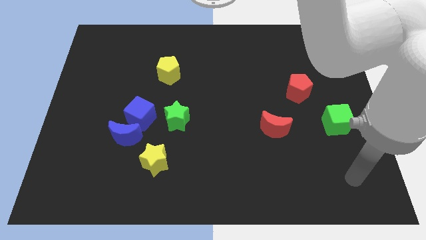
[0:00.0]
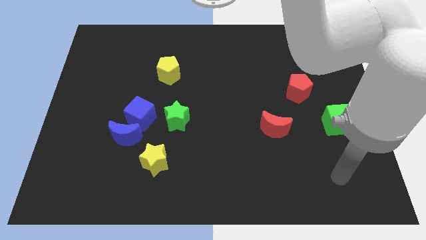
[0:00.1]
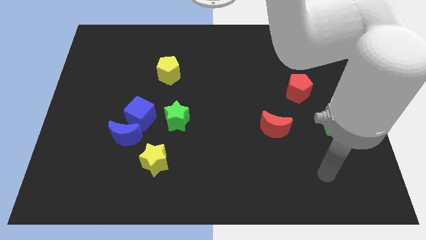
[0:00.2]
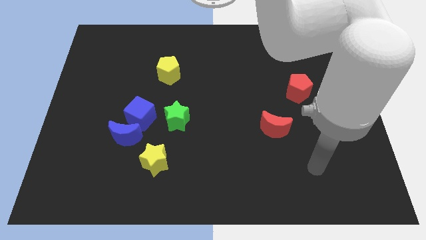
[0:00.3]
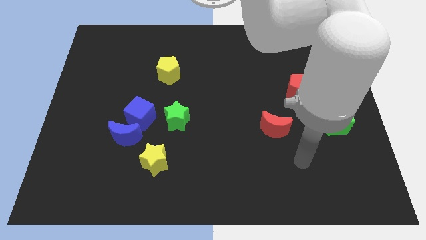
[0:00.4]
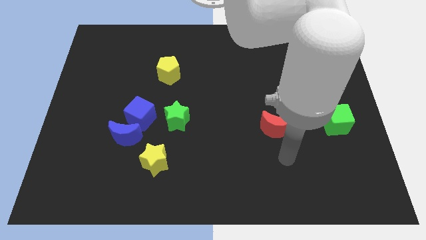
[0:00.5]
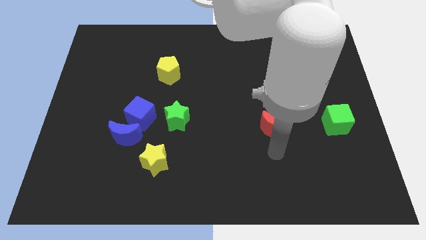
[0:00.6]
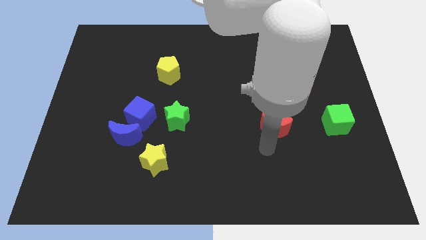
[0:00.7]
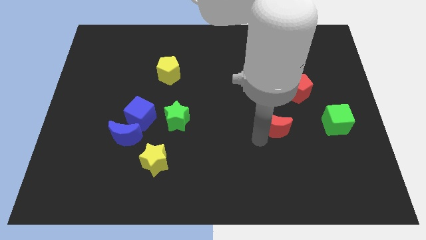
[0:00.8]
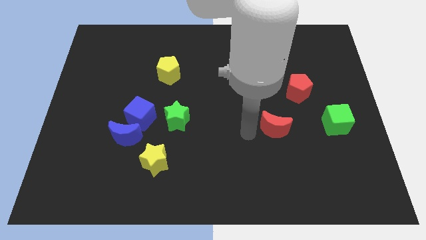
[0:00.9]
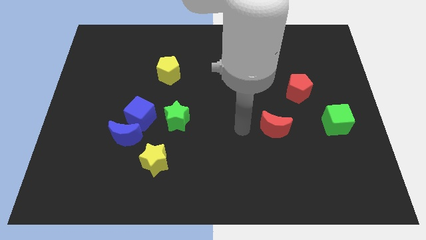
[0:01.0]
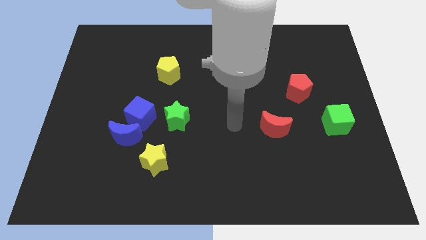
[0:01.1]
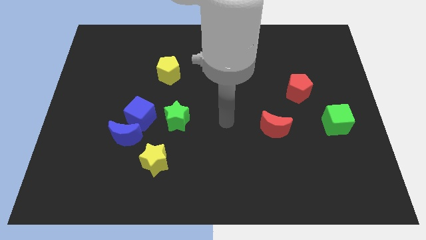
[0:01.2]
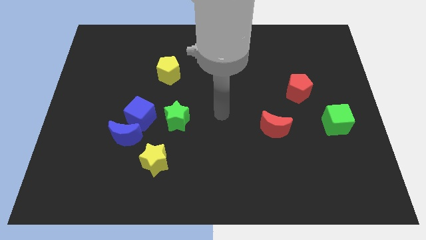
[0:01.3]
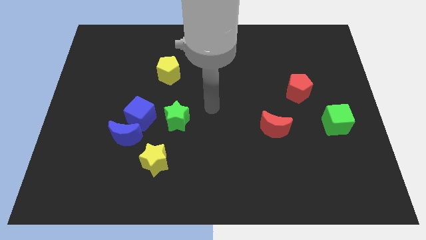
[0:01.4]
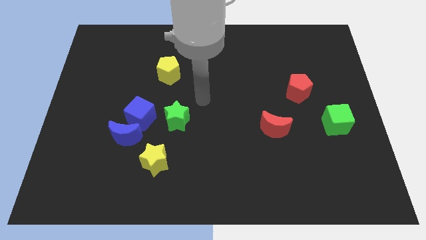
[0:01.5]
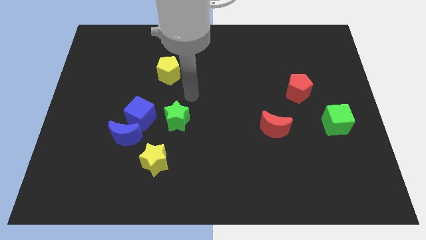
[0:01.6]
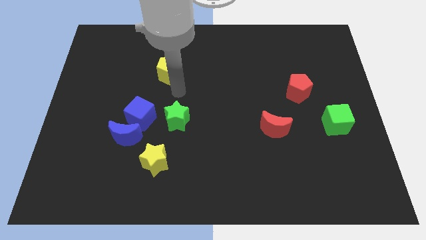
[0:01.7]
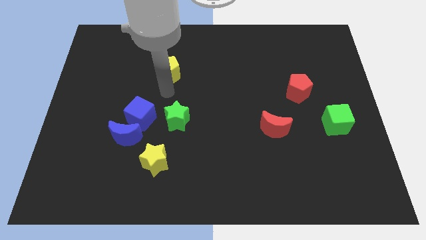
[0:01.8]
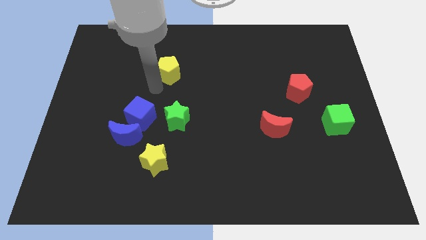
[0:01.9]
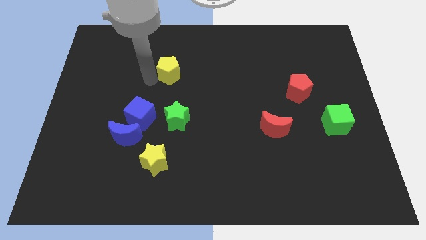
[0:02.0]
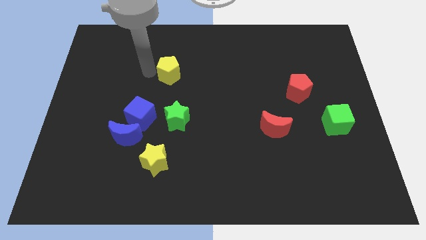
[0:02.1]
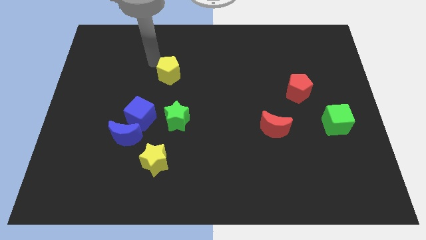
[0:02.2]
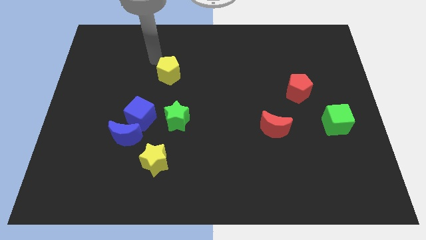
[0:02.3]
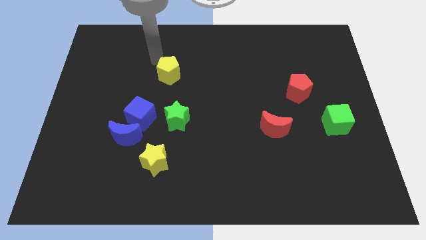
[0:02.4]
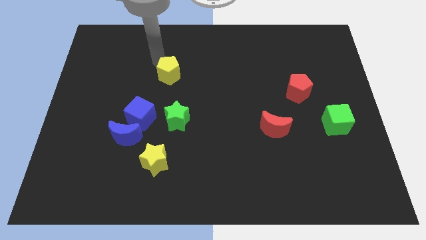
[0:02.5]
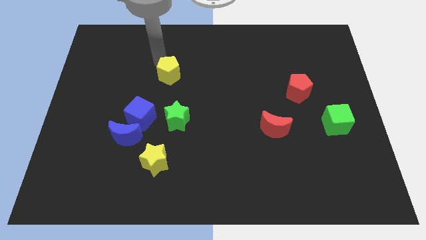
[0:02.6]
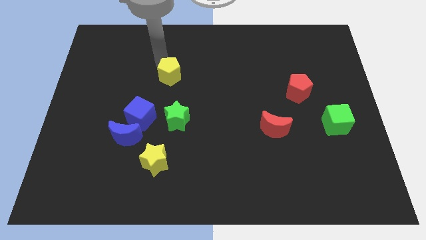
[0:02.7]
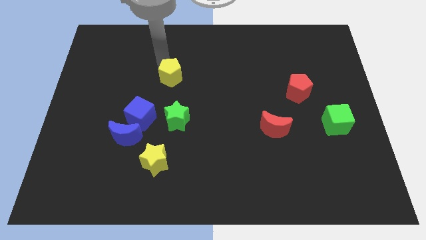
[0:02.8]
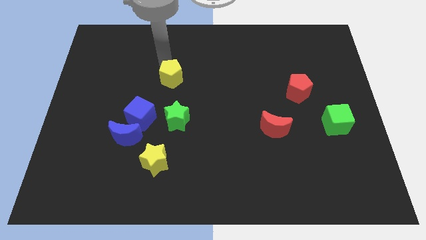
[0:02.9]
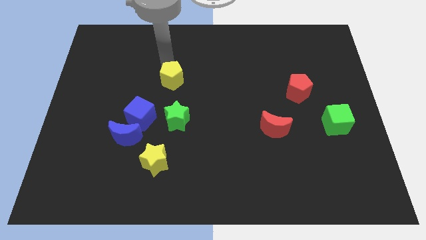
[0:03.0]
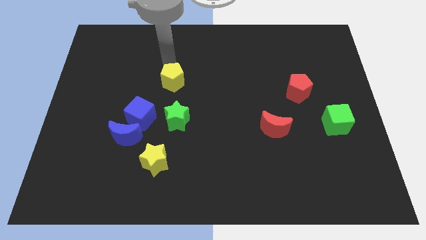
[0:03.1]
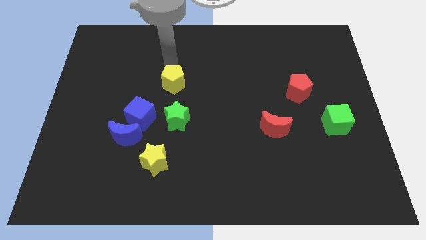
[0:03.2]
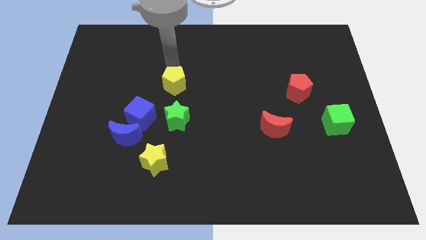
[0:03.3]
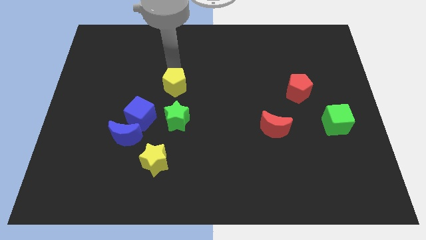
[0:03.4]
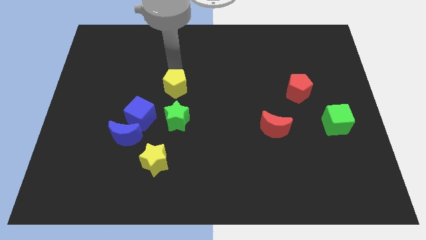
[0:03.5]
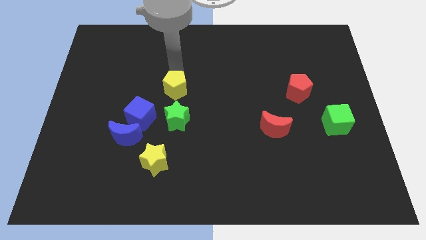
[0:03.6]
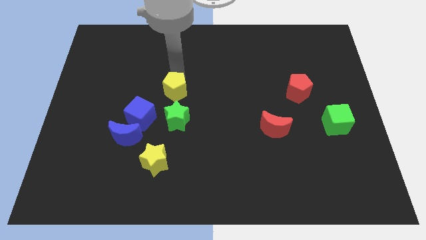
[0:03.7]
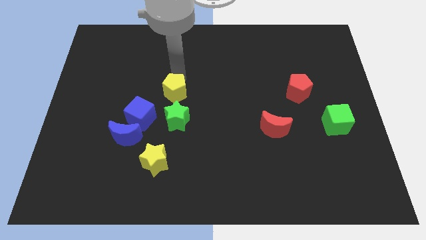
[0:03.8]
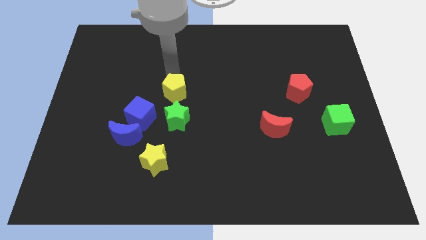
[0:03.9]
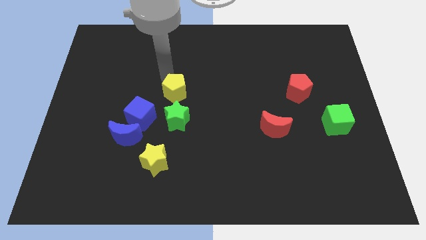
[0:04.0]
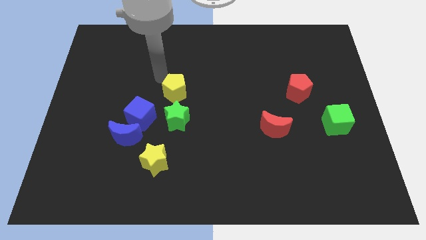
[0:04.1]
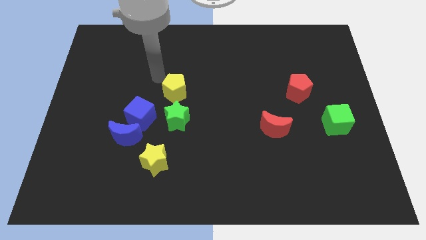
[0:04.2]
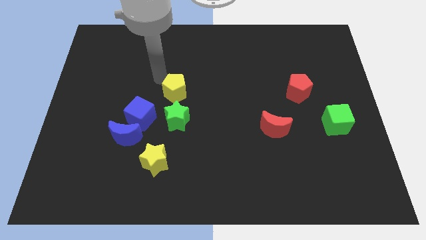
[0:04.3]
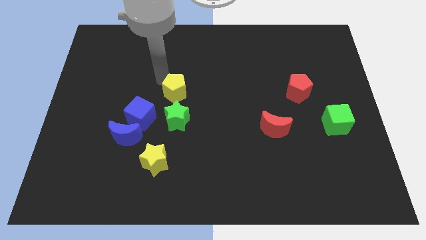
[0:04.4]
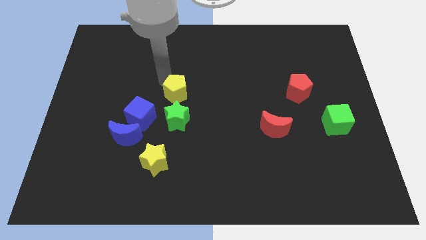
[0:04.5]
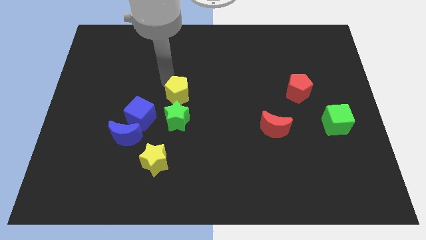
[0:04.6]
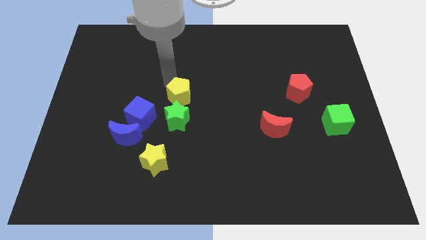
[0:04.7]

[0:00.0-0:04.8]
push the yellow pentagon down a little bit

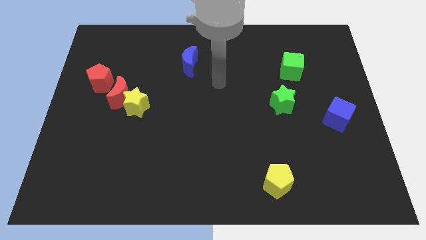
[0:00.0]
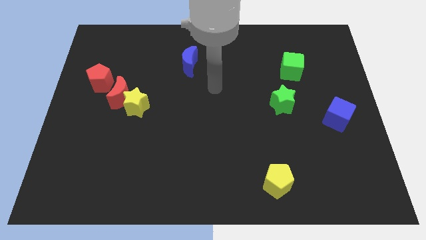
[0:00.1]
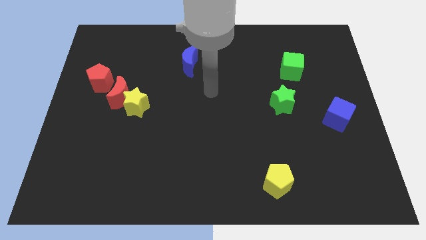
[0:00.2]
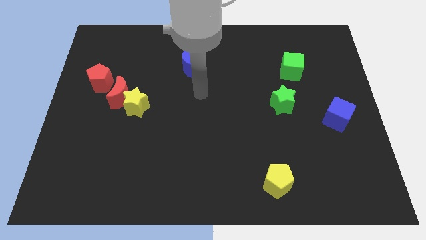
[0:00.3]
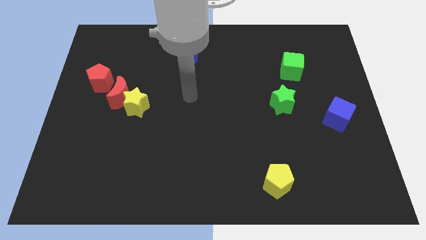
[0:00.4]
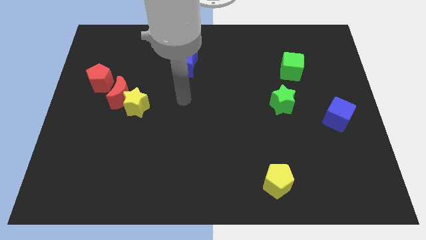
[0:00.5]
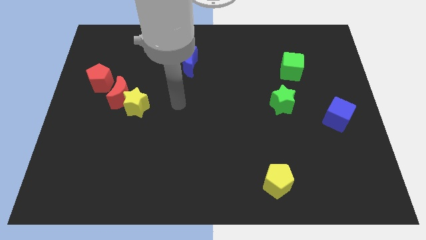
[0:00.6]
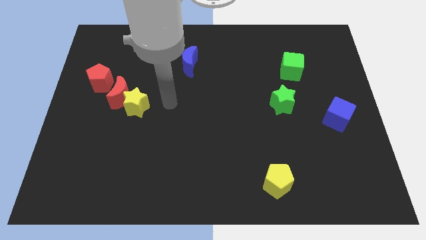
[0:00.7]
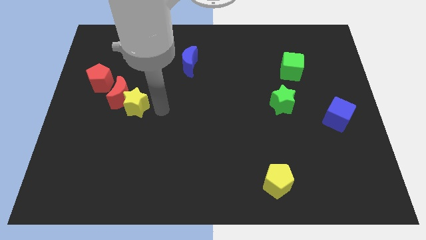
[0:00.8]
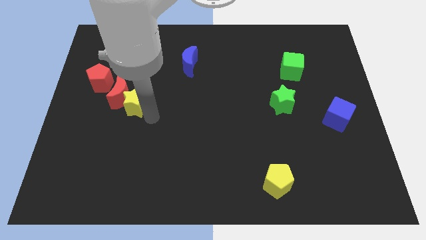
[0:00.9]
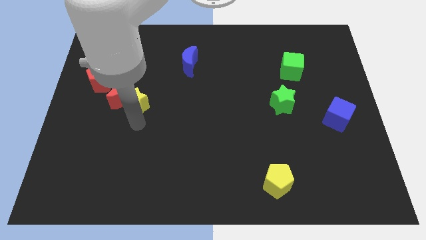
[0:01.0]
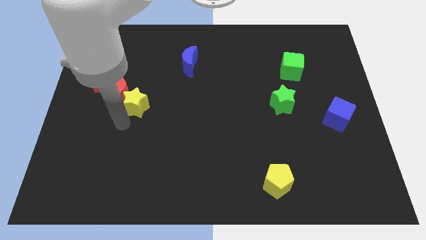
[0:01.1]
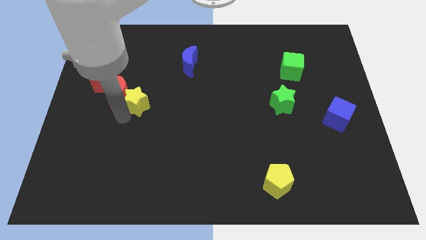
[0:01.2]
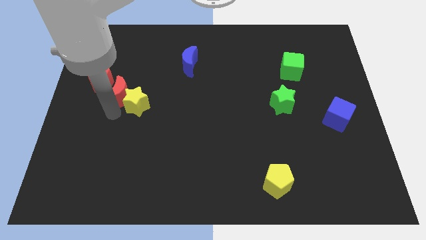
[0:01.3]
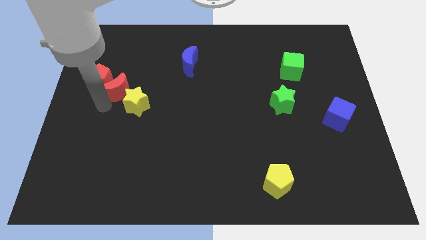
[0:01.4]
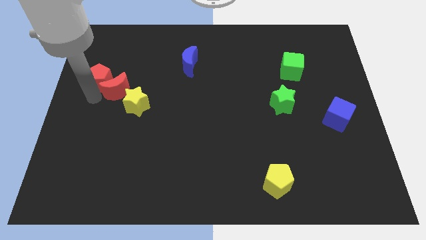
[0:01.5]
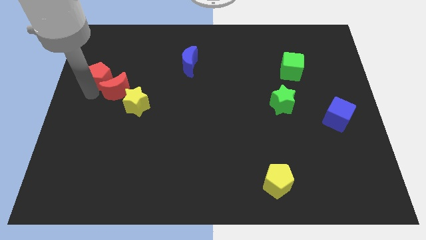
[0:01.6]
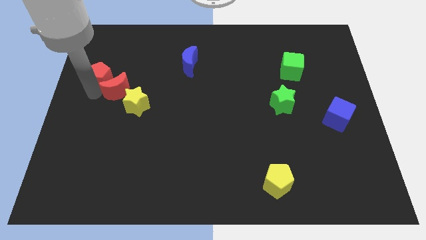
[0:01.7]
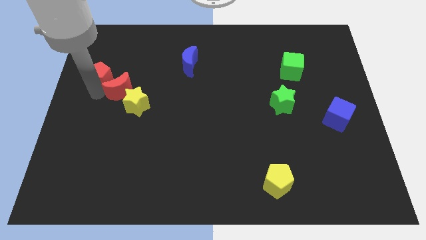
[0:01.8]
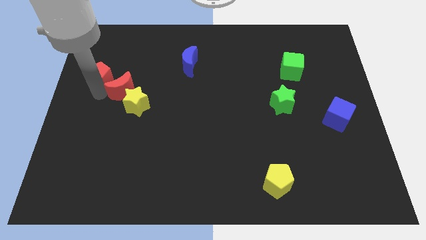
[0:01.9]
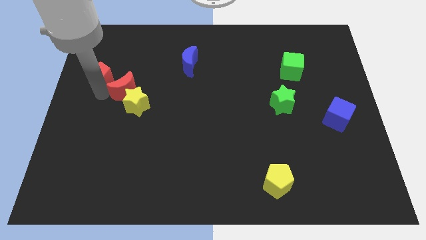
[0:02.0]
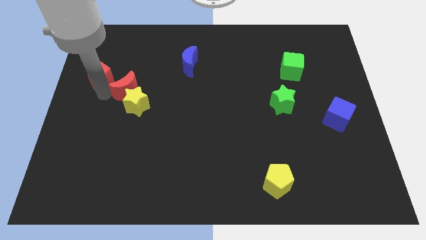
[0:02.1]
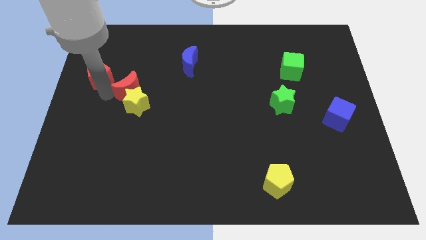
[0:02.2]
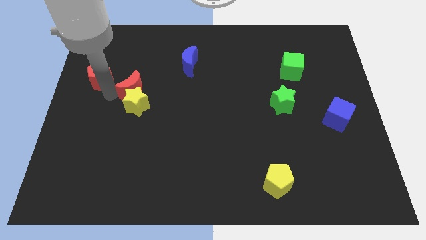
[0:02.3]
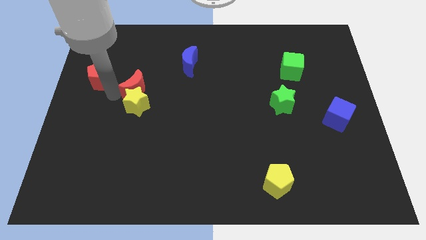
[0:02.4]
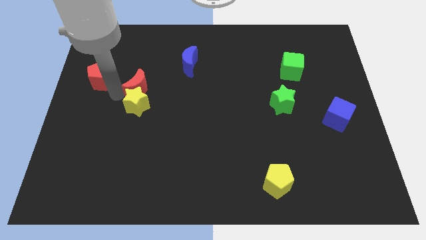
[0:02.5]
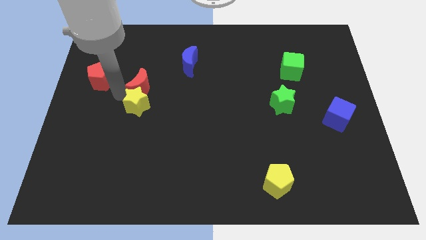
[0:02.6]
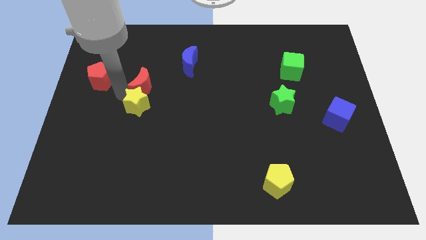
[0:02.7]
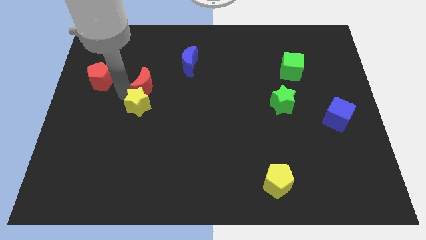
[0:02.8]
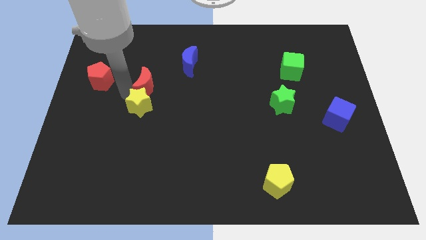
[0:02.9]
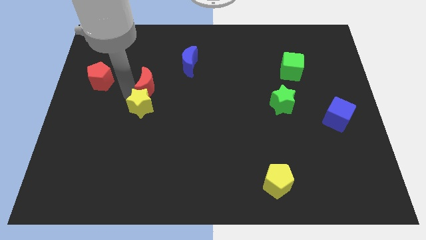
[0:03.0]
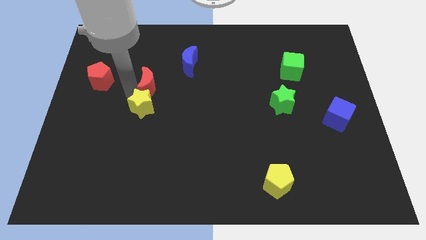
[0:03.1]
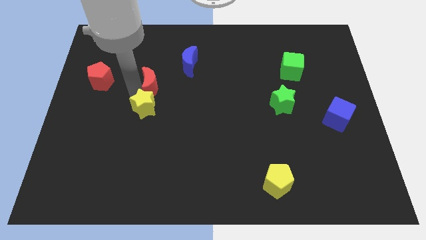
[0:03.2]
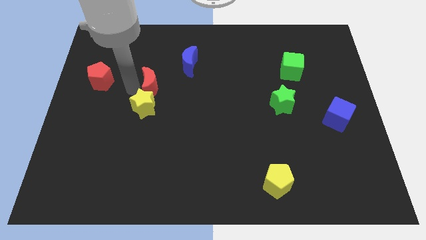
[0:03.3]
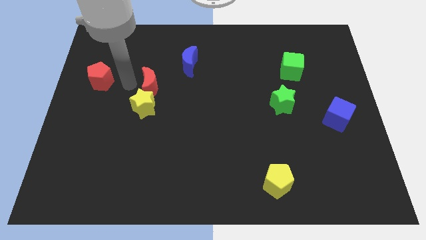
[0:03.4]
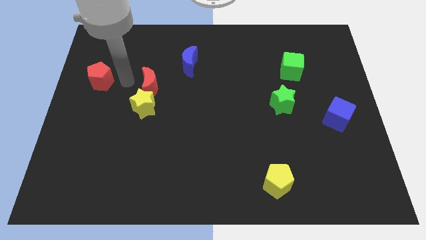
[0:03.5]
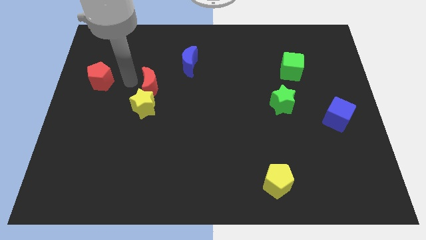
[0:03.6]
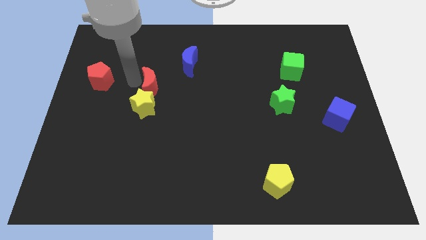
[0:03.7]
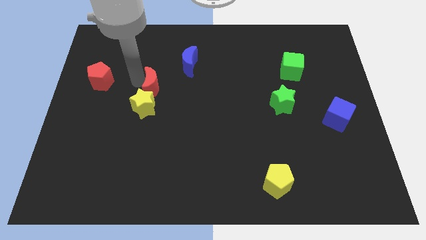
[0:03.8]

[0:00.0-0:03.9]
move the red moon to the right a little
